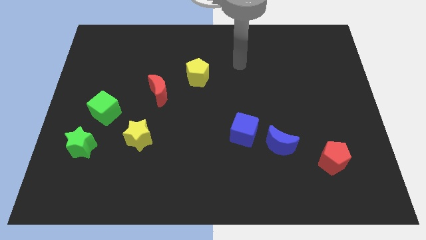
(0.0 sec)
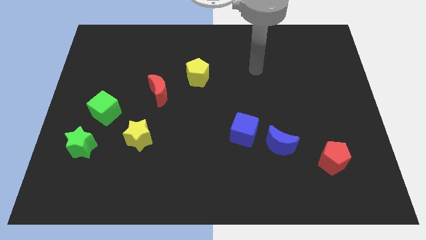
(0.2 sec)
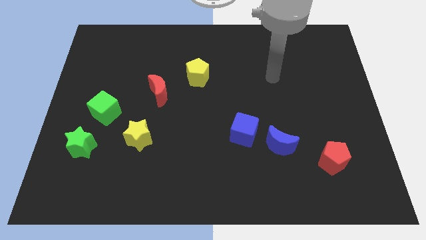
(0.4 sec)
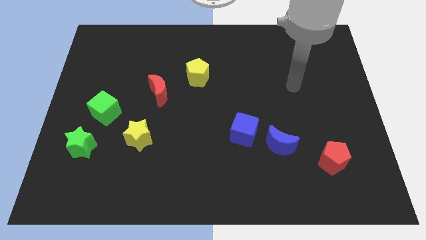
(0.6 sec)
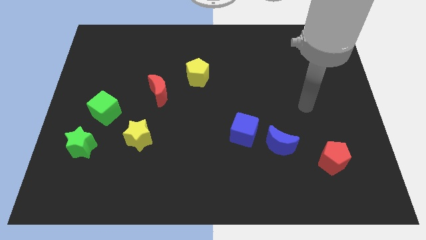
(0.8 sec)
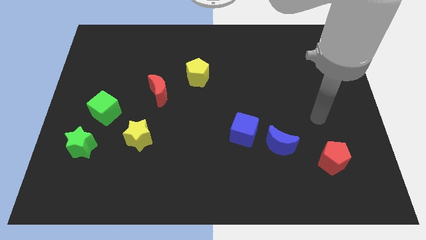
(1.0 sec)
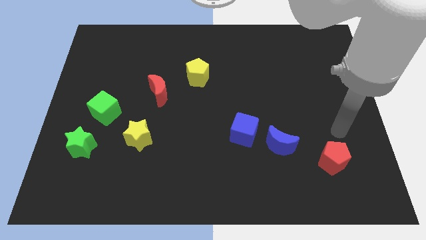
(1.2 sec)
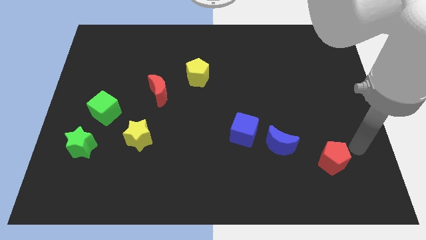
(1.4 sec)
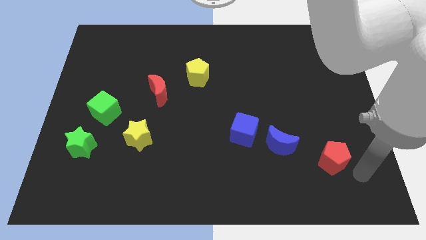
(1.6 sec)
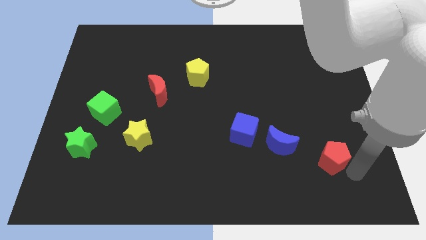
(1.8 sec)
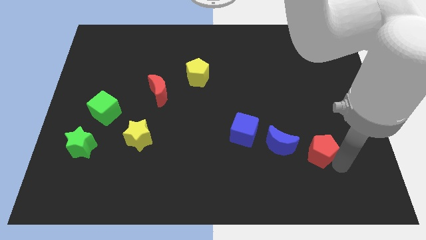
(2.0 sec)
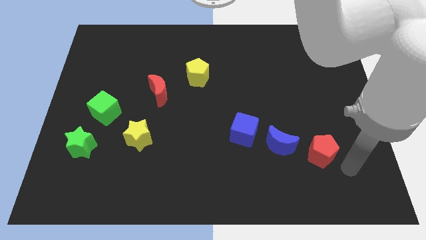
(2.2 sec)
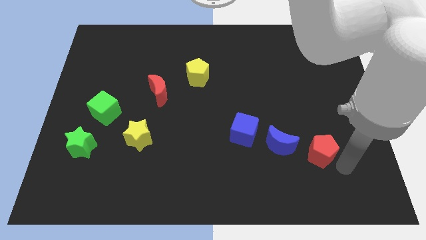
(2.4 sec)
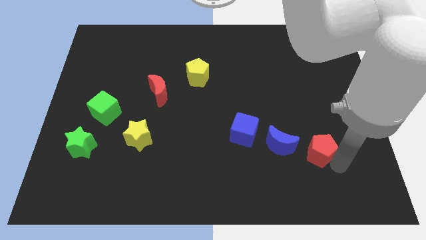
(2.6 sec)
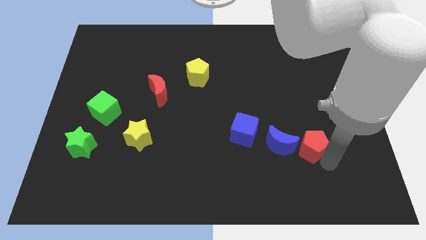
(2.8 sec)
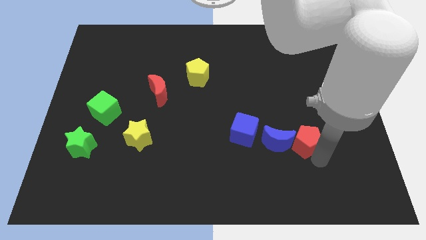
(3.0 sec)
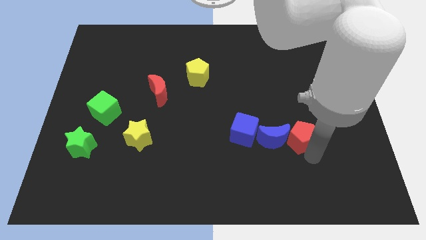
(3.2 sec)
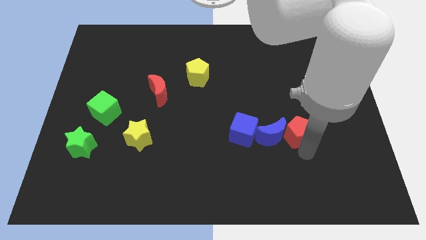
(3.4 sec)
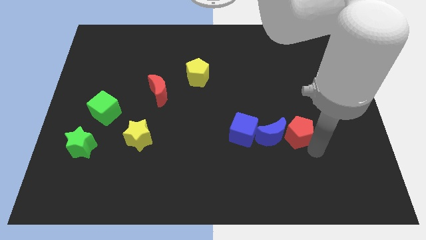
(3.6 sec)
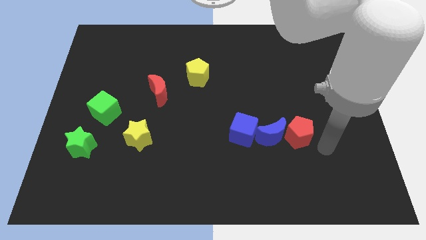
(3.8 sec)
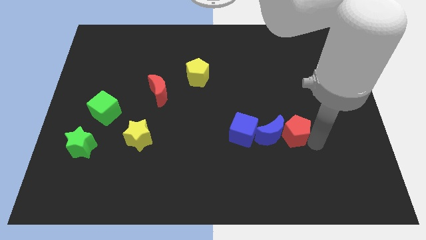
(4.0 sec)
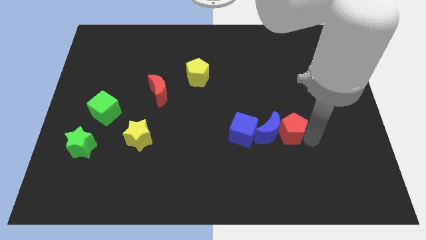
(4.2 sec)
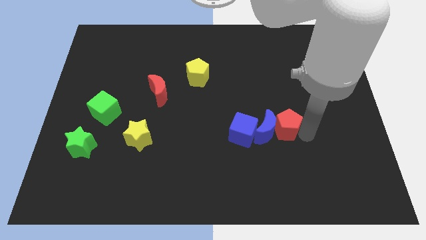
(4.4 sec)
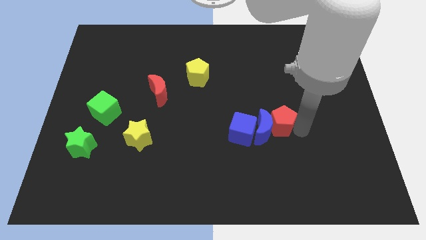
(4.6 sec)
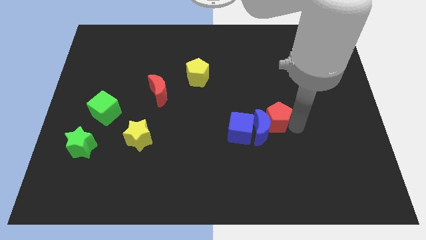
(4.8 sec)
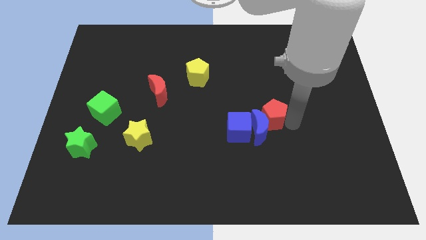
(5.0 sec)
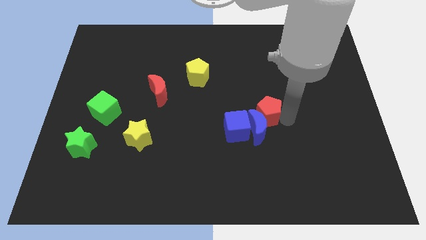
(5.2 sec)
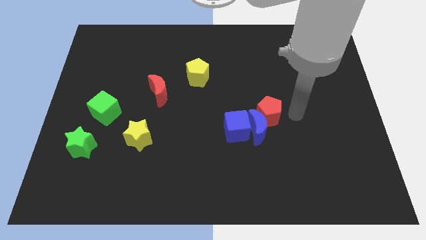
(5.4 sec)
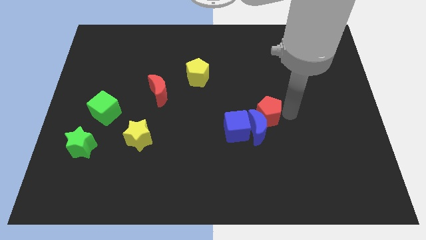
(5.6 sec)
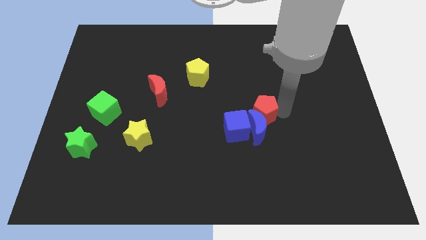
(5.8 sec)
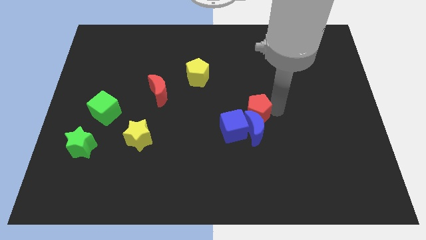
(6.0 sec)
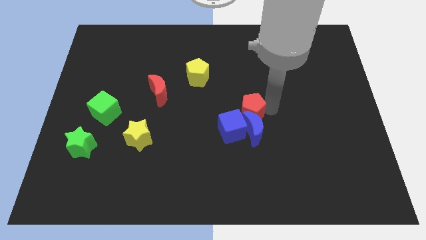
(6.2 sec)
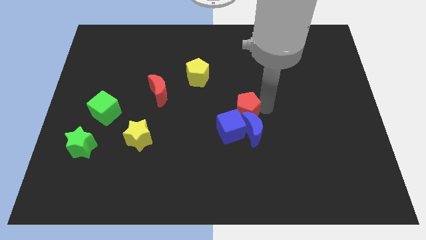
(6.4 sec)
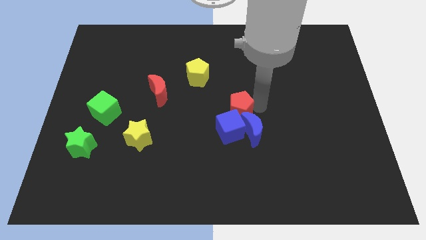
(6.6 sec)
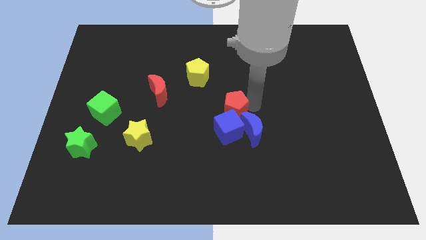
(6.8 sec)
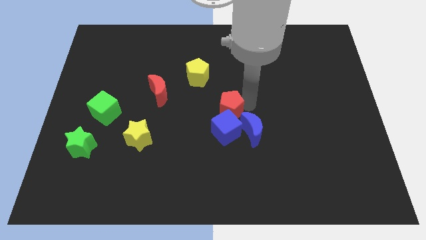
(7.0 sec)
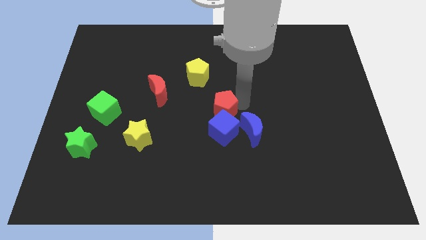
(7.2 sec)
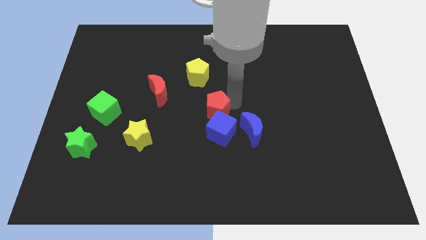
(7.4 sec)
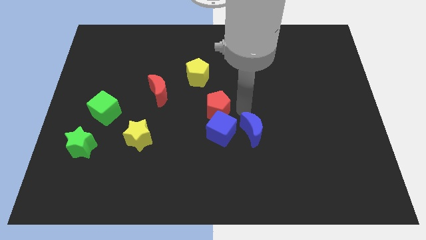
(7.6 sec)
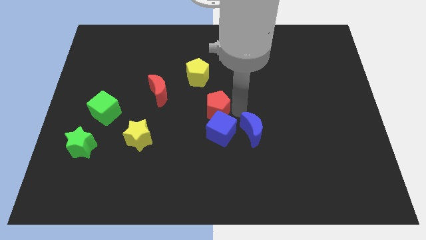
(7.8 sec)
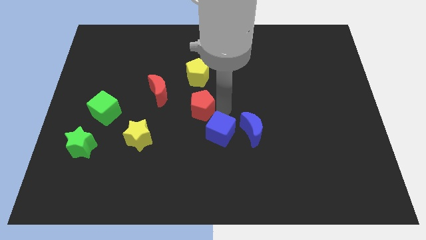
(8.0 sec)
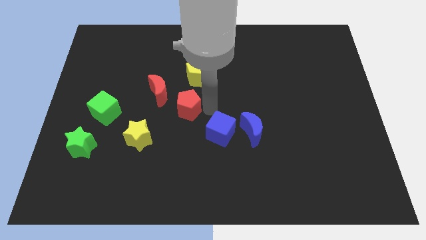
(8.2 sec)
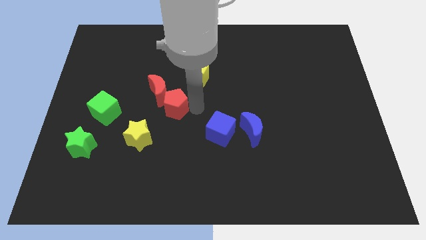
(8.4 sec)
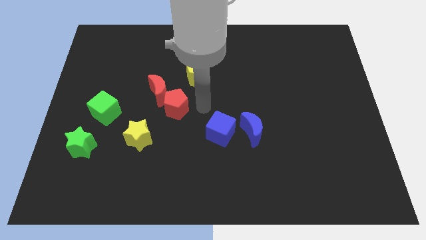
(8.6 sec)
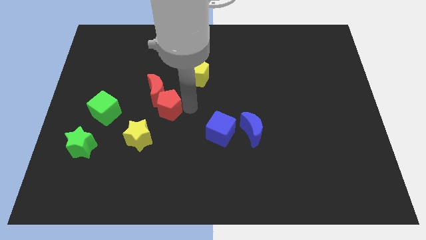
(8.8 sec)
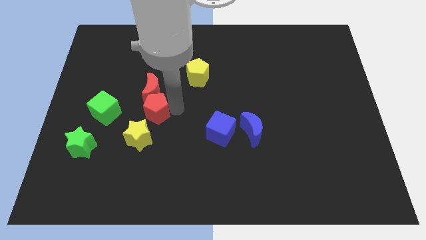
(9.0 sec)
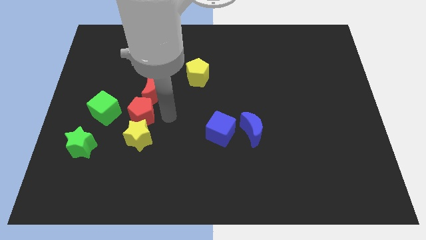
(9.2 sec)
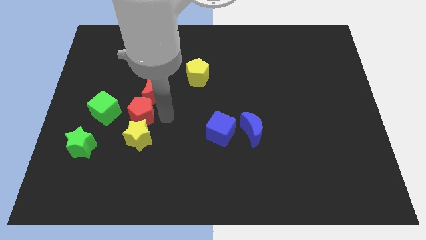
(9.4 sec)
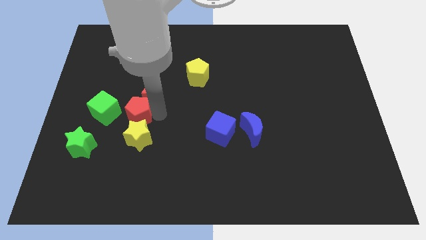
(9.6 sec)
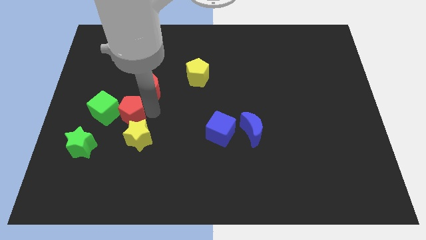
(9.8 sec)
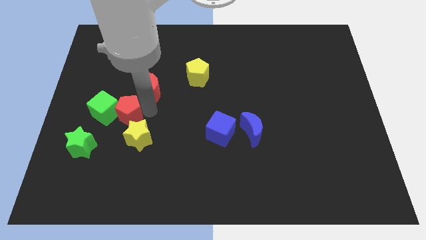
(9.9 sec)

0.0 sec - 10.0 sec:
slide the red pentagon next to the green cube

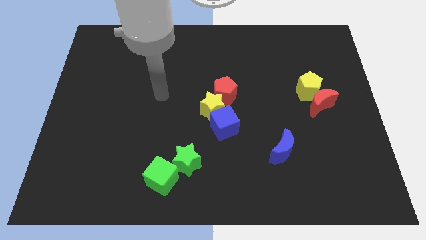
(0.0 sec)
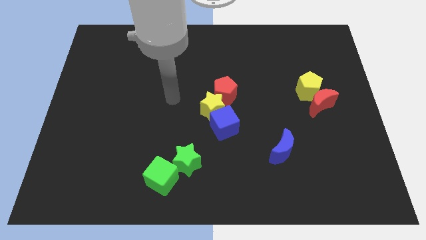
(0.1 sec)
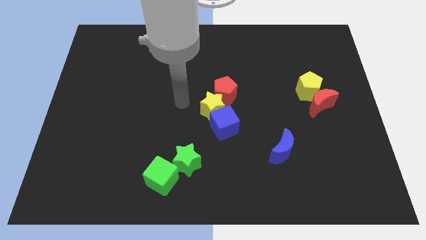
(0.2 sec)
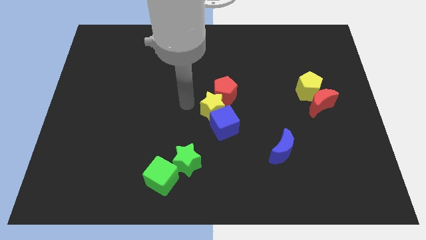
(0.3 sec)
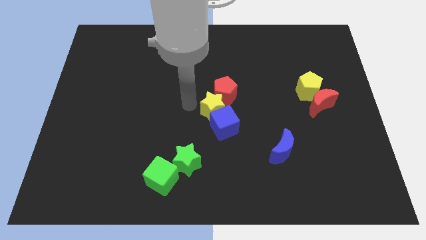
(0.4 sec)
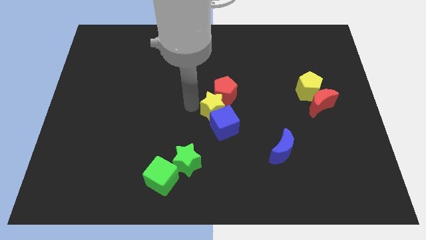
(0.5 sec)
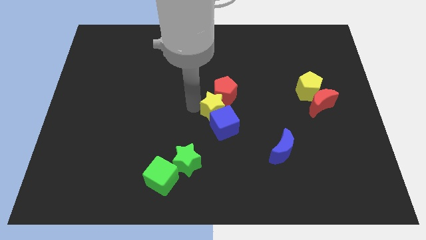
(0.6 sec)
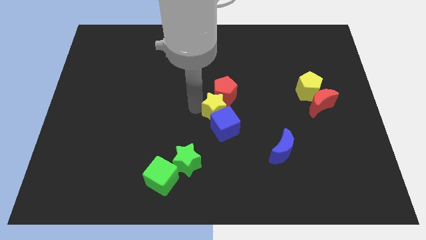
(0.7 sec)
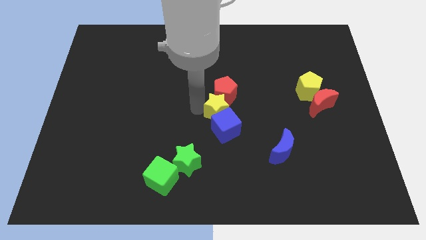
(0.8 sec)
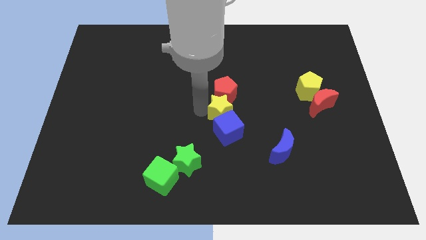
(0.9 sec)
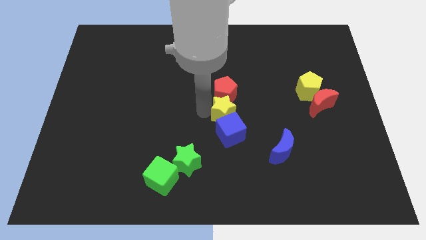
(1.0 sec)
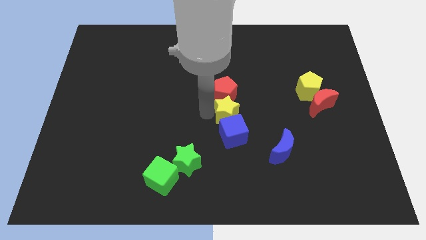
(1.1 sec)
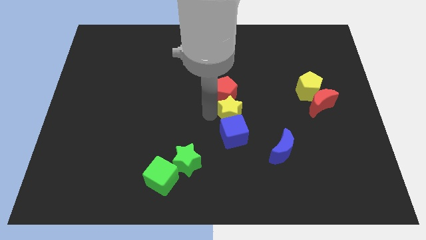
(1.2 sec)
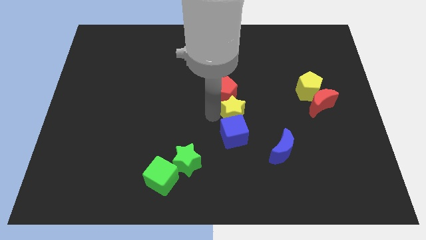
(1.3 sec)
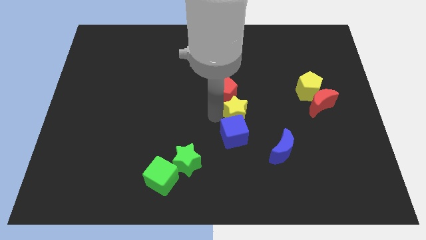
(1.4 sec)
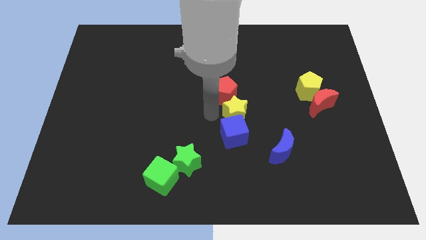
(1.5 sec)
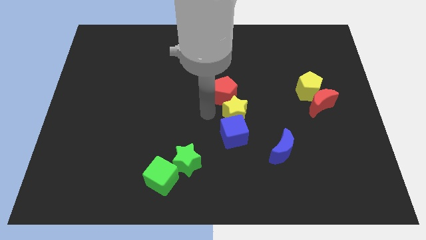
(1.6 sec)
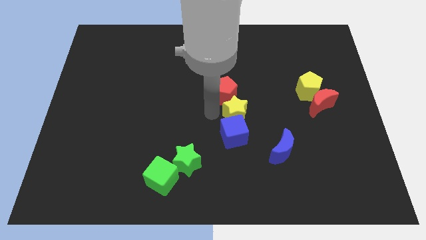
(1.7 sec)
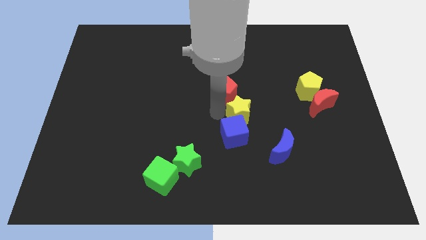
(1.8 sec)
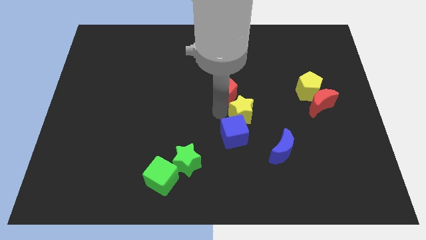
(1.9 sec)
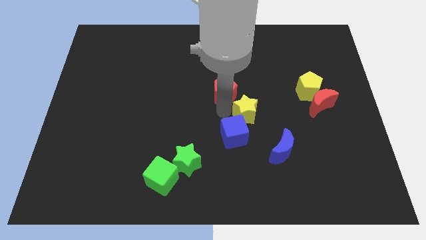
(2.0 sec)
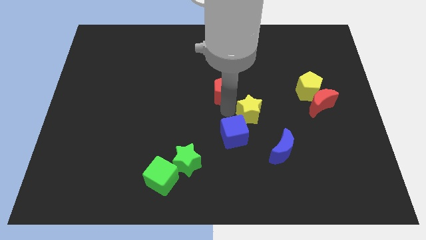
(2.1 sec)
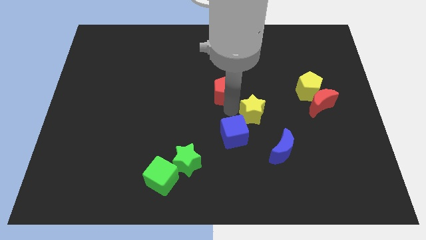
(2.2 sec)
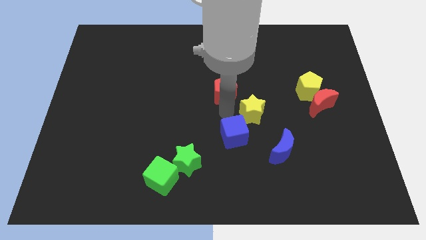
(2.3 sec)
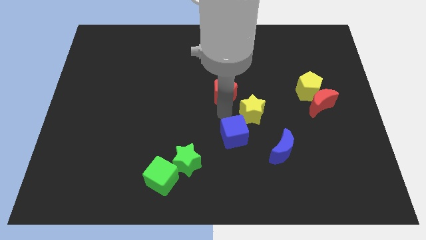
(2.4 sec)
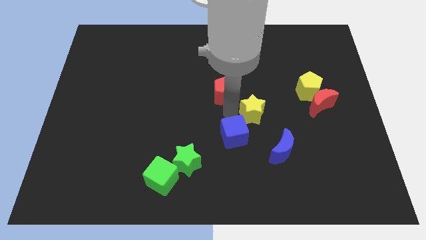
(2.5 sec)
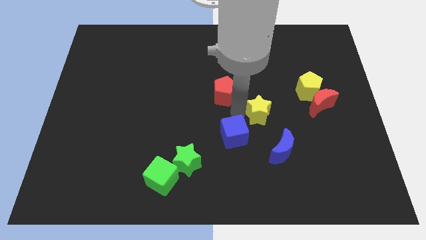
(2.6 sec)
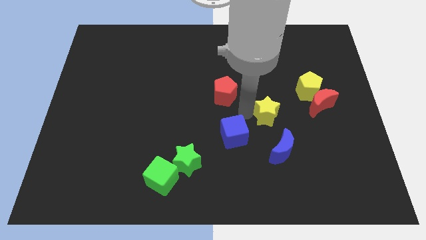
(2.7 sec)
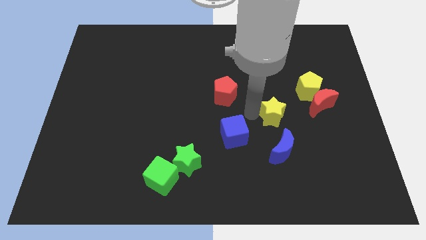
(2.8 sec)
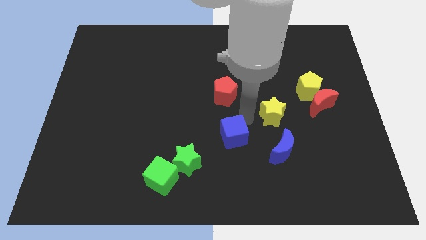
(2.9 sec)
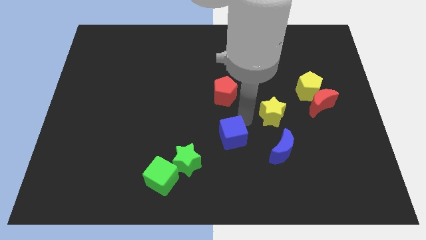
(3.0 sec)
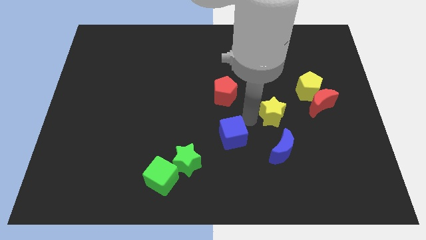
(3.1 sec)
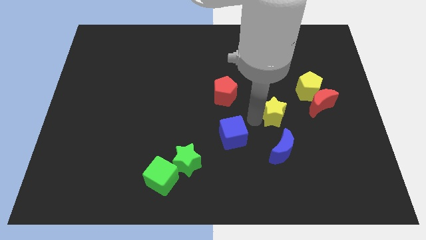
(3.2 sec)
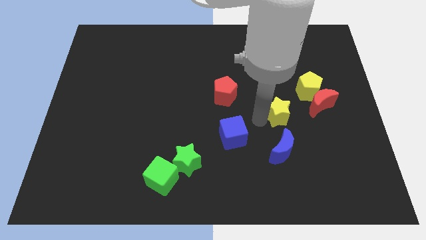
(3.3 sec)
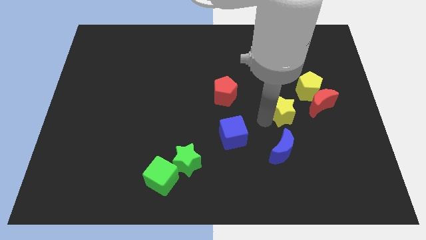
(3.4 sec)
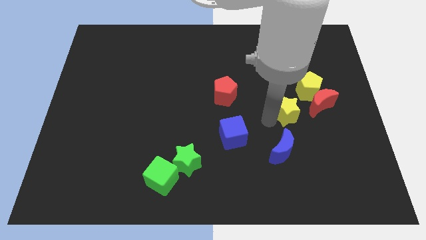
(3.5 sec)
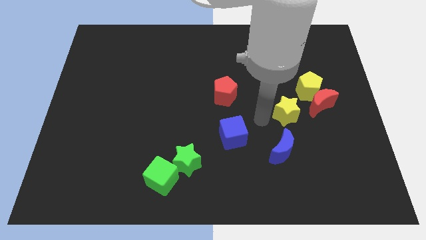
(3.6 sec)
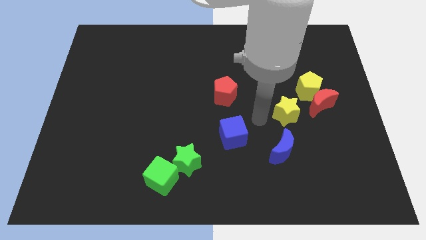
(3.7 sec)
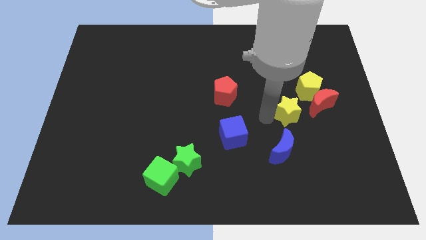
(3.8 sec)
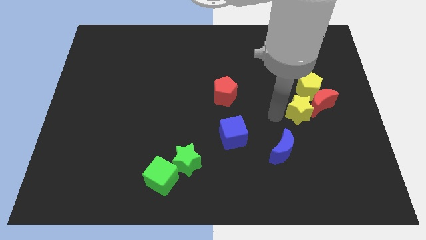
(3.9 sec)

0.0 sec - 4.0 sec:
push the yellow star close to the red moon
